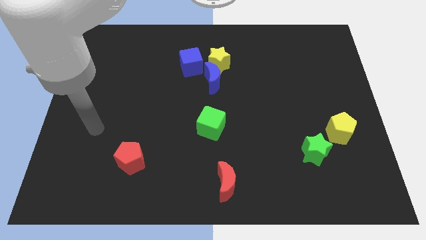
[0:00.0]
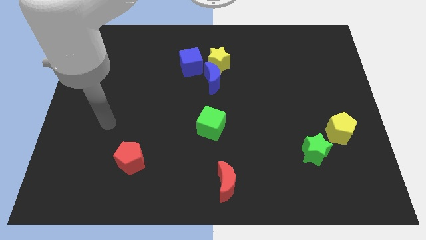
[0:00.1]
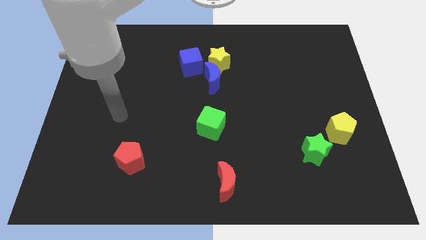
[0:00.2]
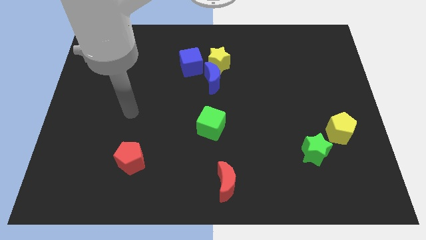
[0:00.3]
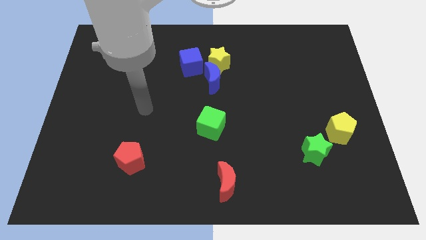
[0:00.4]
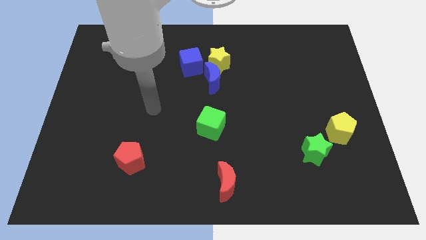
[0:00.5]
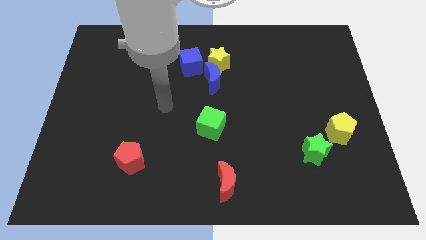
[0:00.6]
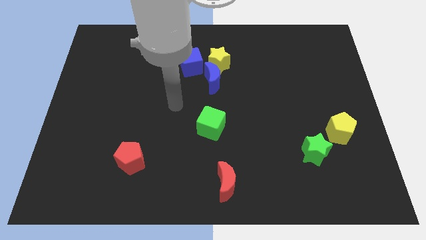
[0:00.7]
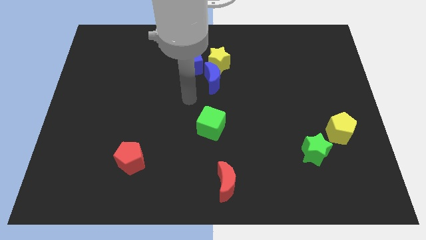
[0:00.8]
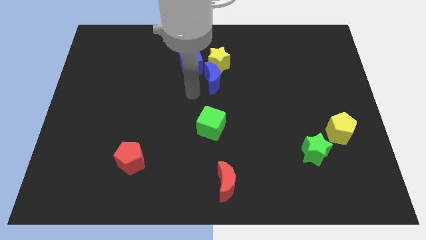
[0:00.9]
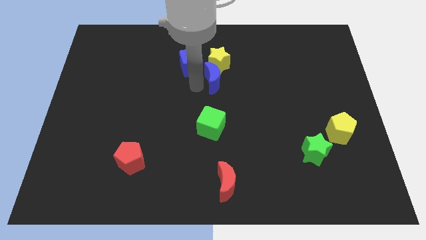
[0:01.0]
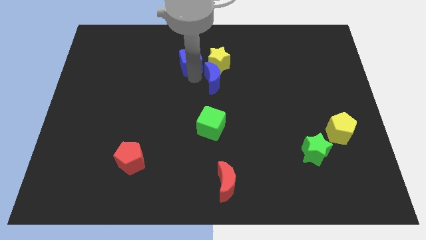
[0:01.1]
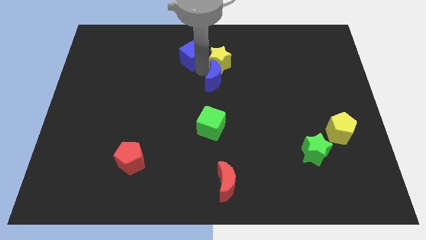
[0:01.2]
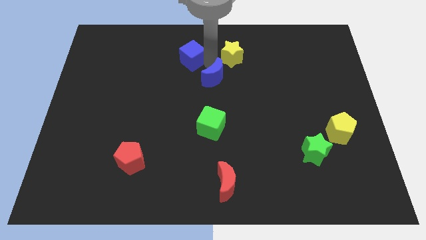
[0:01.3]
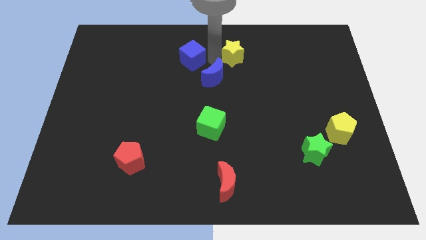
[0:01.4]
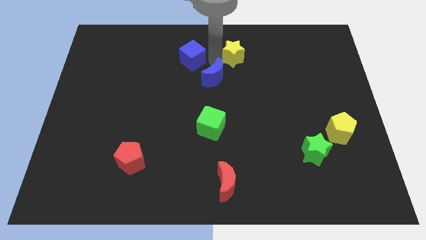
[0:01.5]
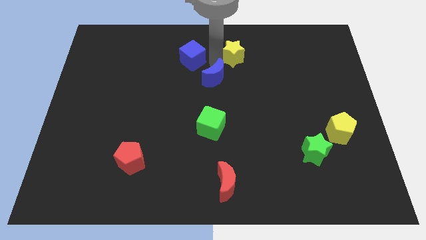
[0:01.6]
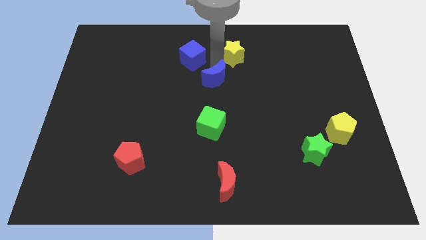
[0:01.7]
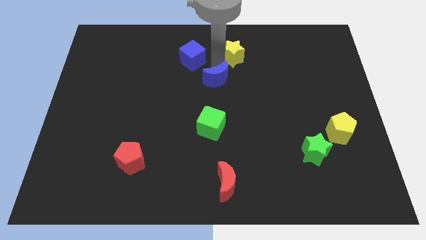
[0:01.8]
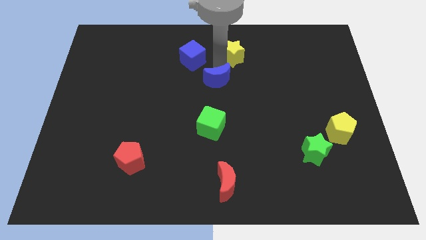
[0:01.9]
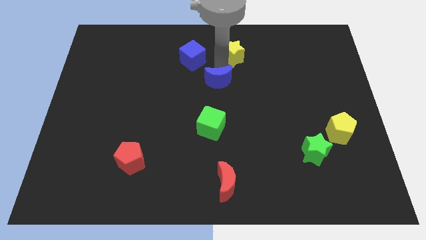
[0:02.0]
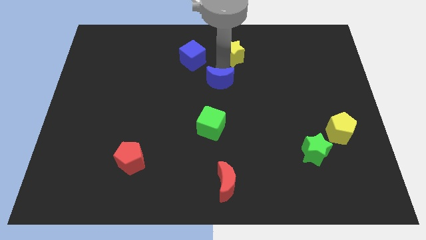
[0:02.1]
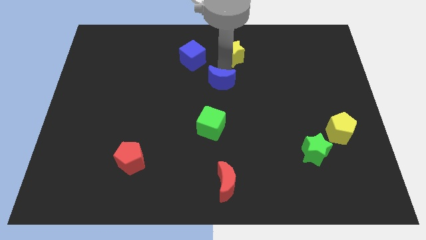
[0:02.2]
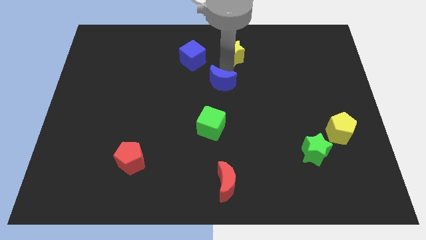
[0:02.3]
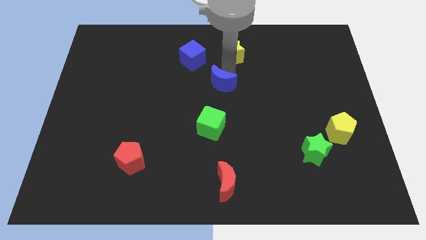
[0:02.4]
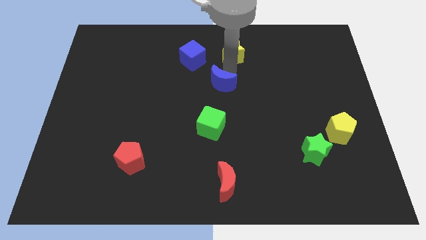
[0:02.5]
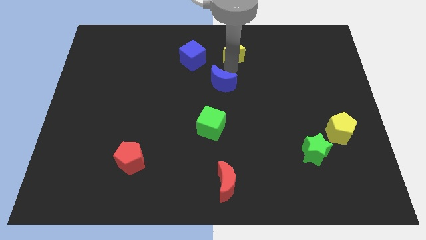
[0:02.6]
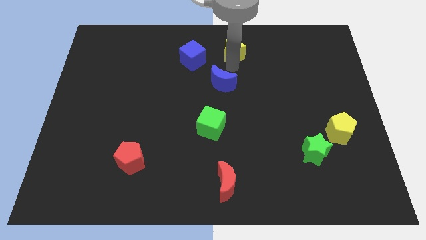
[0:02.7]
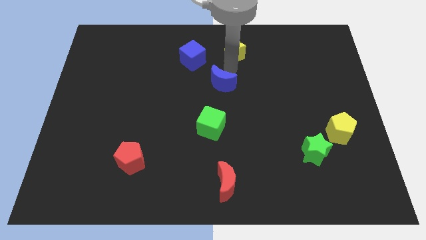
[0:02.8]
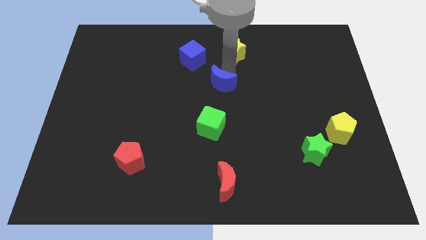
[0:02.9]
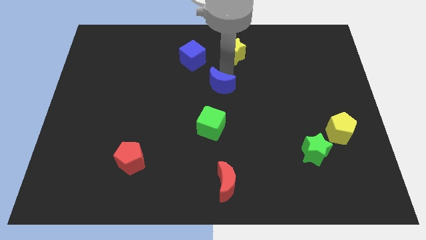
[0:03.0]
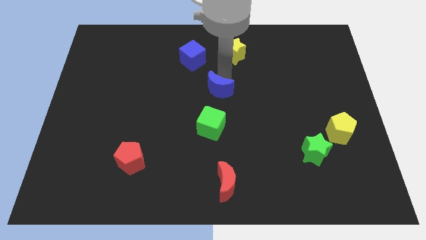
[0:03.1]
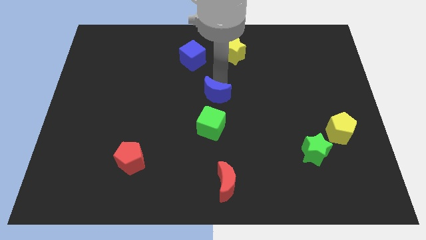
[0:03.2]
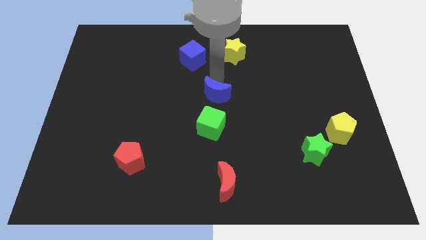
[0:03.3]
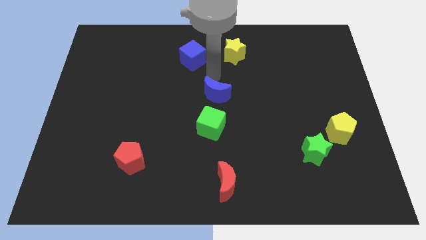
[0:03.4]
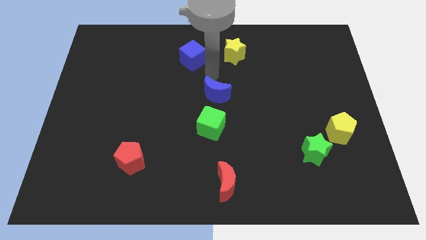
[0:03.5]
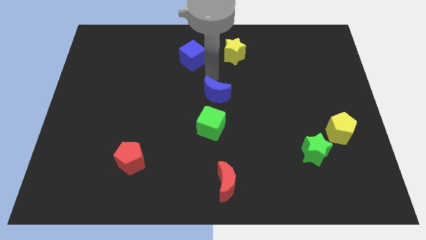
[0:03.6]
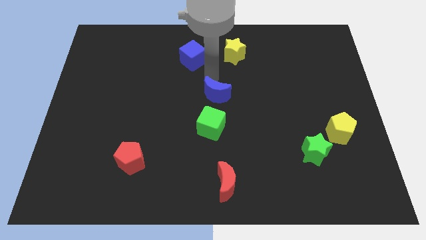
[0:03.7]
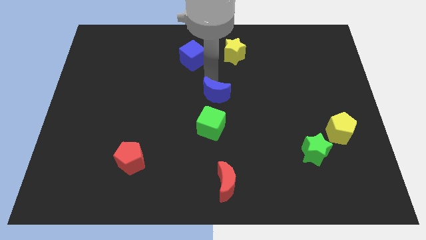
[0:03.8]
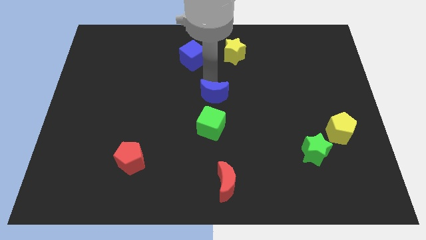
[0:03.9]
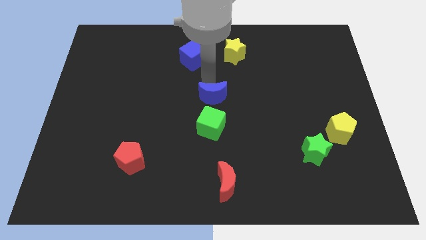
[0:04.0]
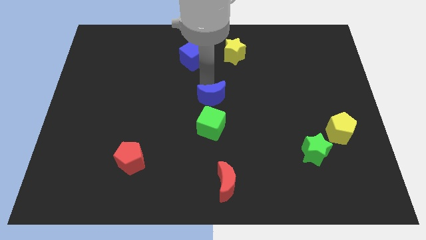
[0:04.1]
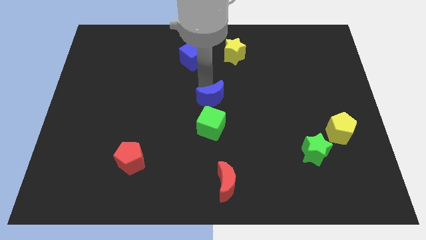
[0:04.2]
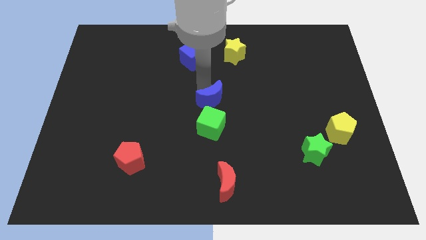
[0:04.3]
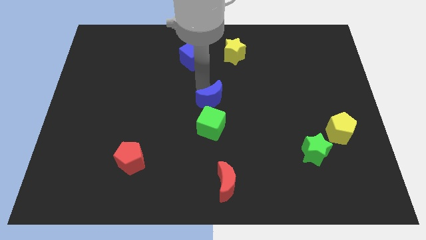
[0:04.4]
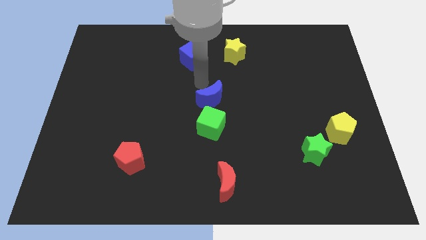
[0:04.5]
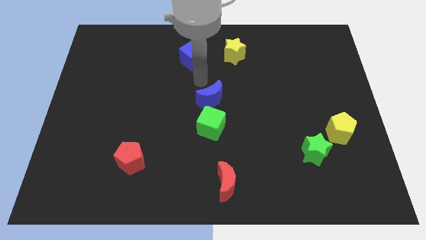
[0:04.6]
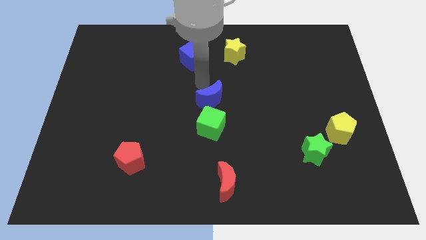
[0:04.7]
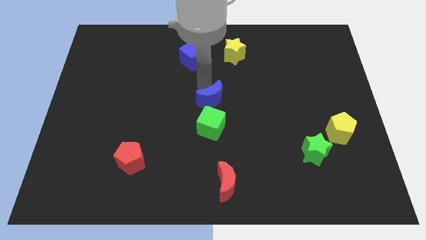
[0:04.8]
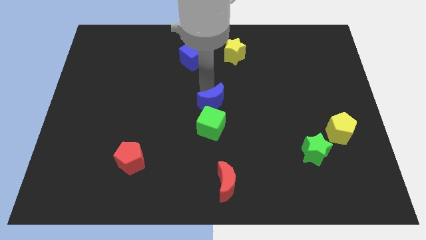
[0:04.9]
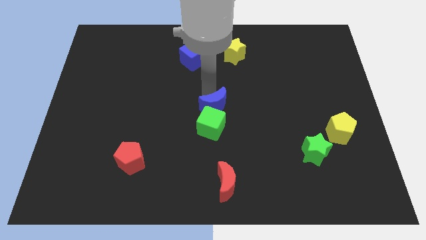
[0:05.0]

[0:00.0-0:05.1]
slide the blue moon to the green cube
